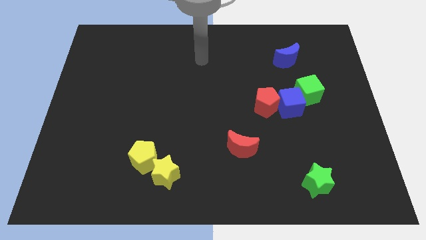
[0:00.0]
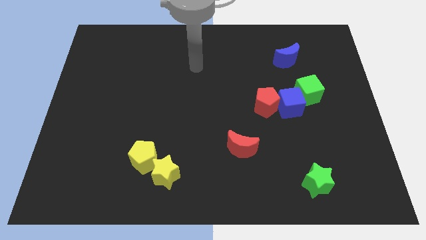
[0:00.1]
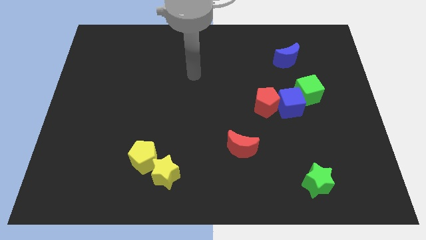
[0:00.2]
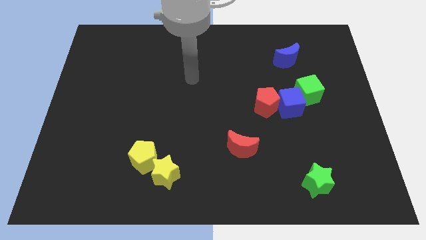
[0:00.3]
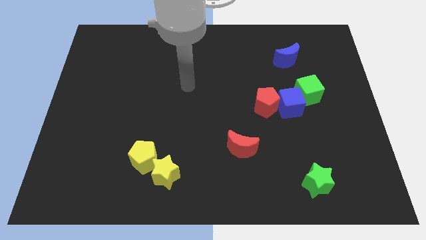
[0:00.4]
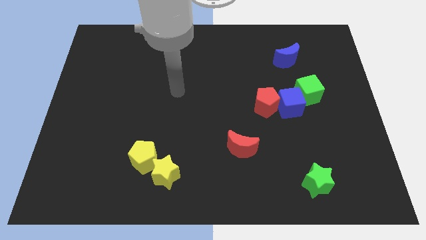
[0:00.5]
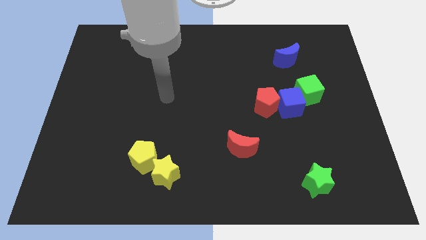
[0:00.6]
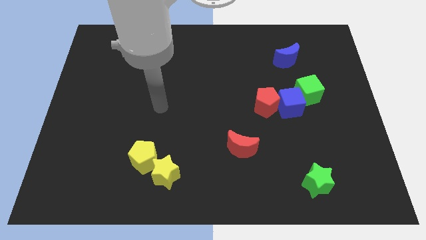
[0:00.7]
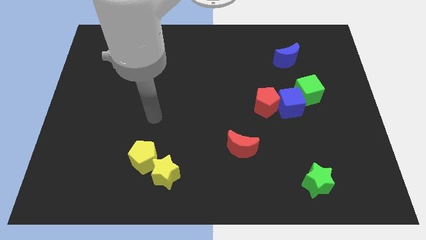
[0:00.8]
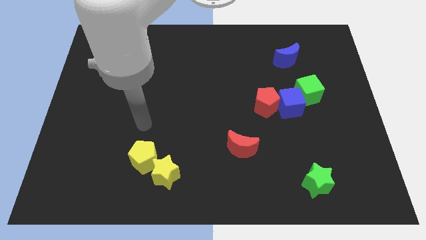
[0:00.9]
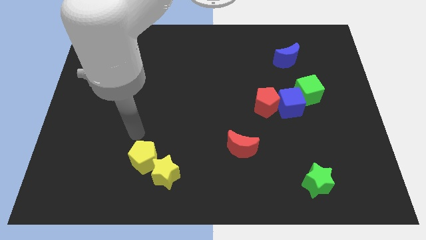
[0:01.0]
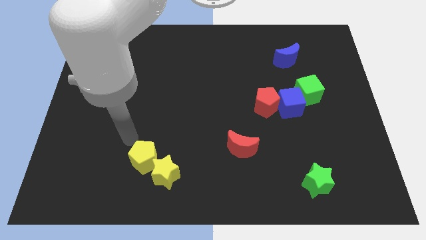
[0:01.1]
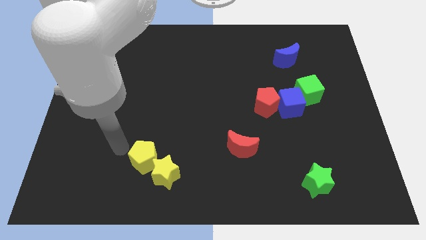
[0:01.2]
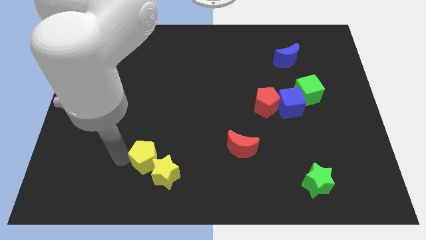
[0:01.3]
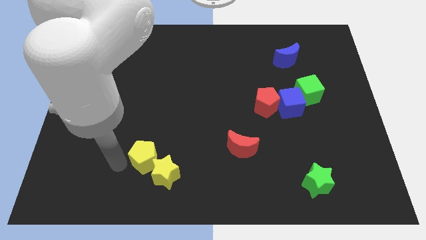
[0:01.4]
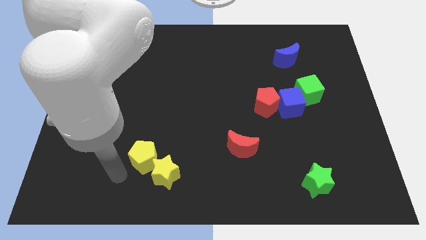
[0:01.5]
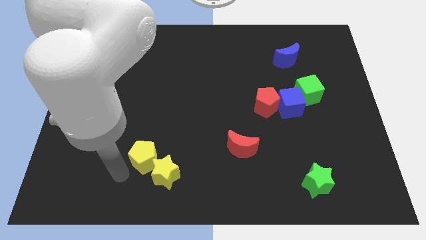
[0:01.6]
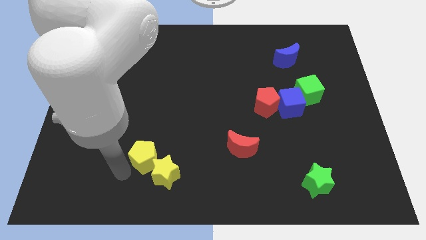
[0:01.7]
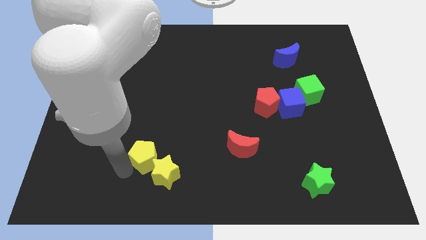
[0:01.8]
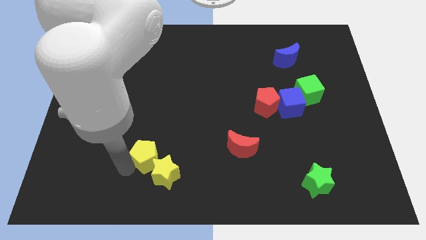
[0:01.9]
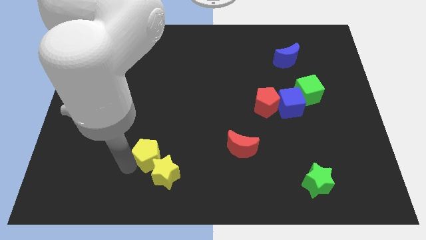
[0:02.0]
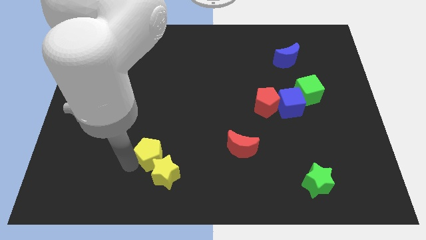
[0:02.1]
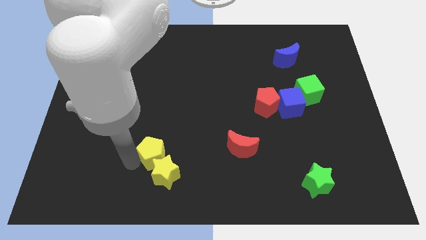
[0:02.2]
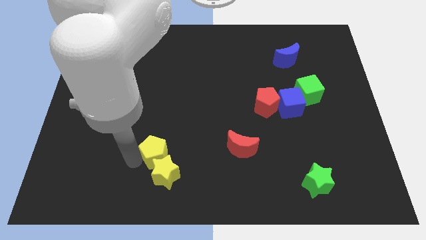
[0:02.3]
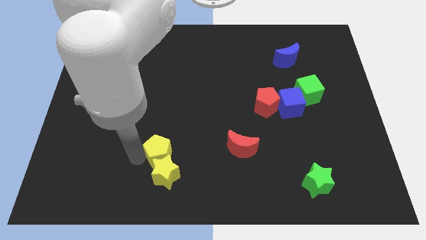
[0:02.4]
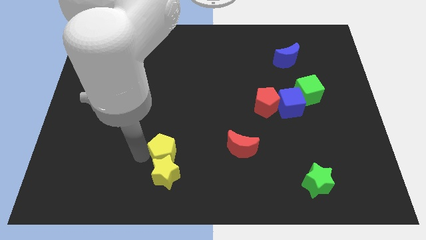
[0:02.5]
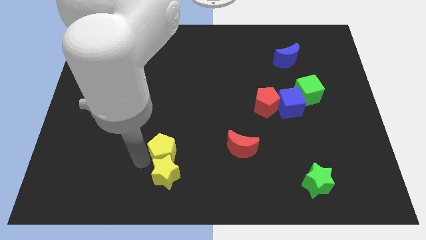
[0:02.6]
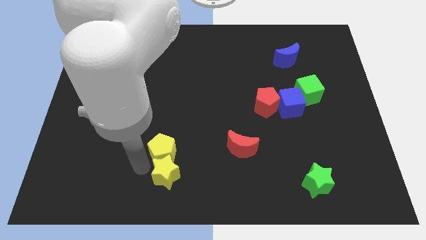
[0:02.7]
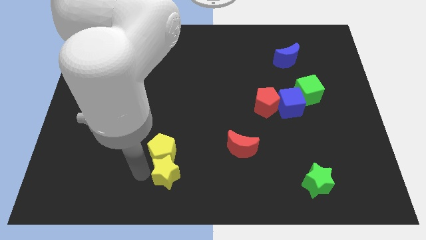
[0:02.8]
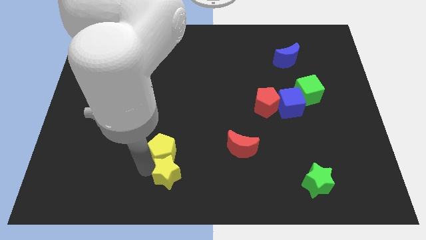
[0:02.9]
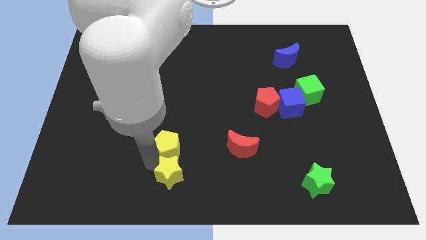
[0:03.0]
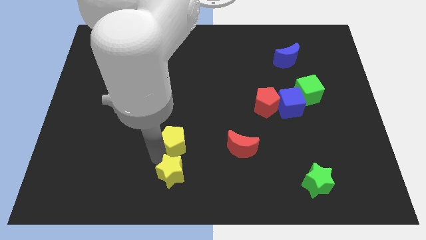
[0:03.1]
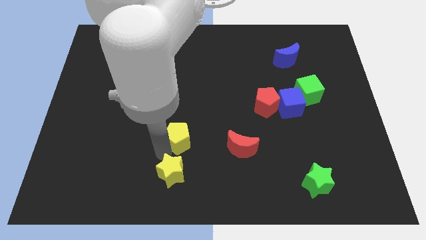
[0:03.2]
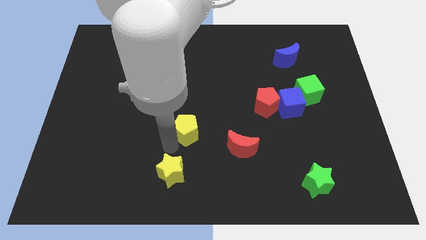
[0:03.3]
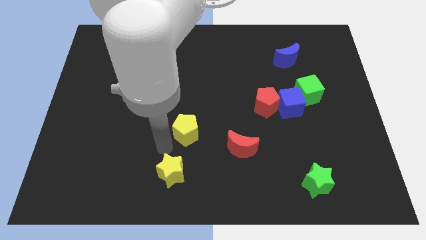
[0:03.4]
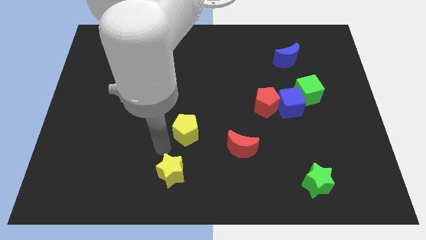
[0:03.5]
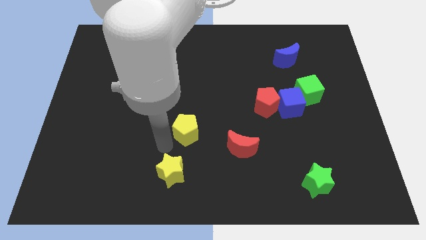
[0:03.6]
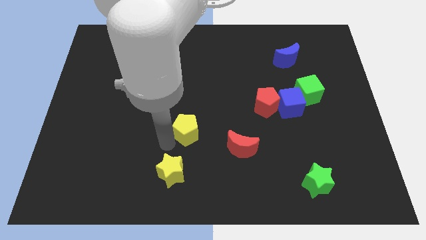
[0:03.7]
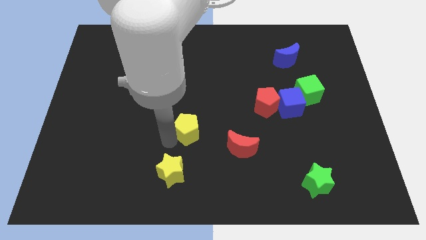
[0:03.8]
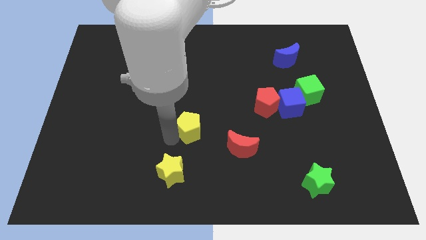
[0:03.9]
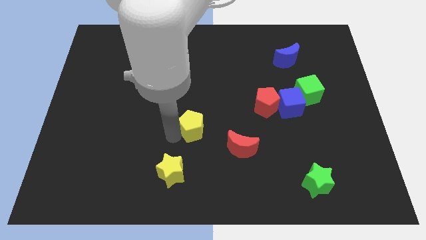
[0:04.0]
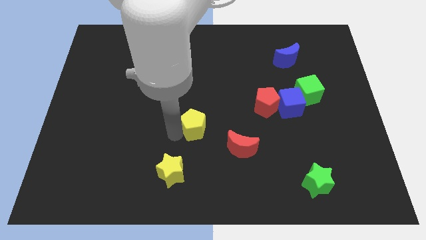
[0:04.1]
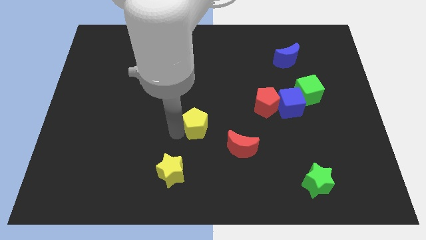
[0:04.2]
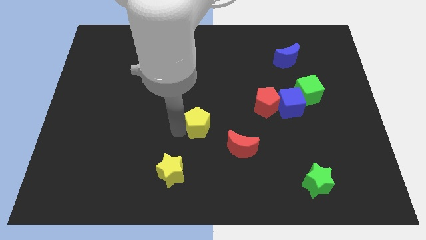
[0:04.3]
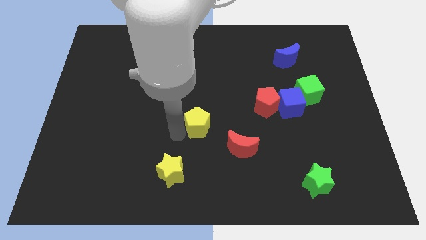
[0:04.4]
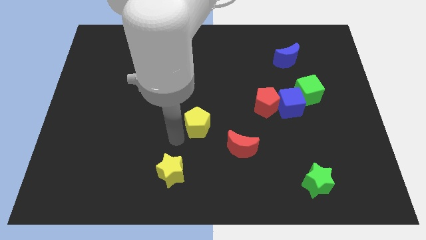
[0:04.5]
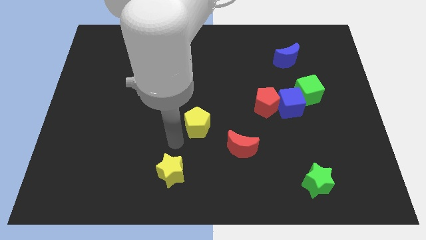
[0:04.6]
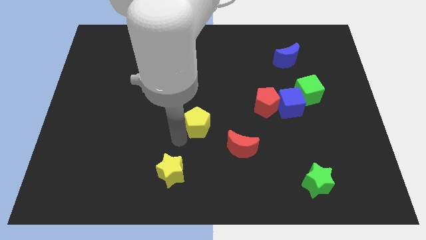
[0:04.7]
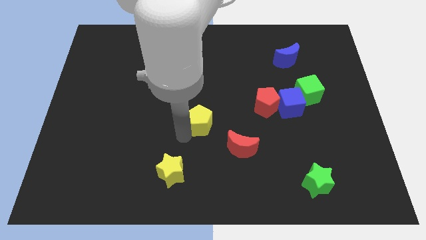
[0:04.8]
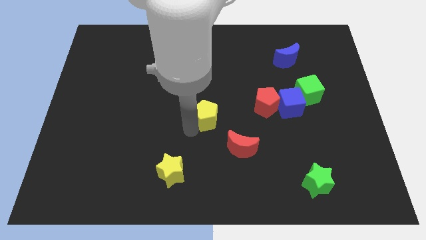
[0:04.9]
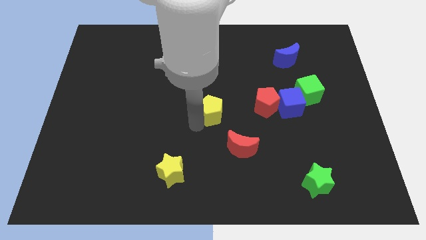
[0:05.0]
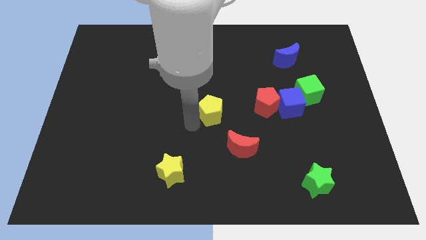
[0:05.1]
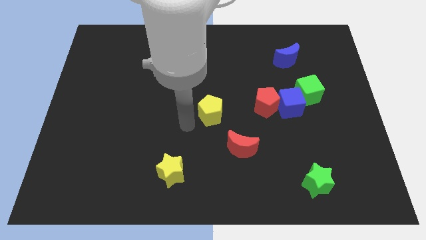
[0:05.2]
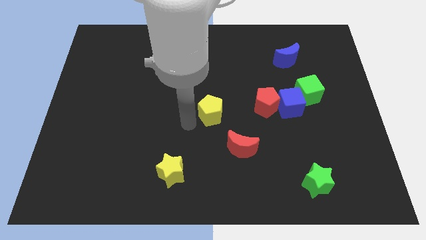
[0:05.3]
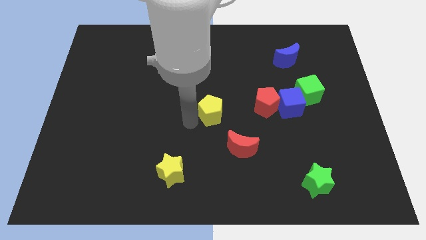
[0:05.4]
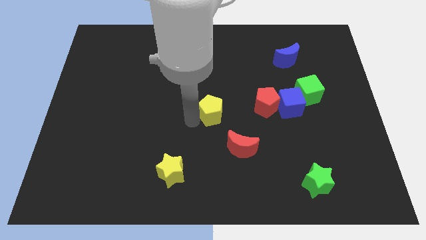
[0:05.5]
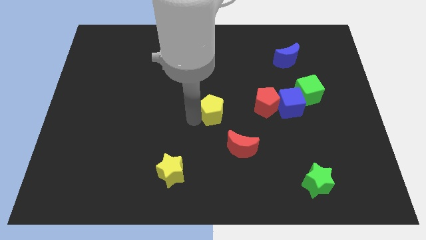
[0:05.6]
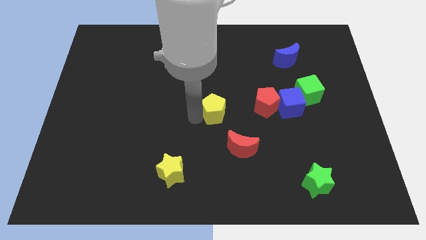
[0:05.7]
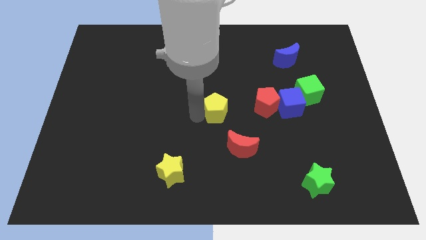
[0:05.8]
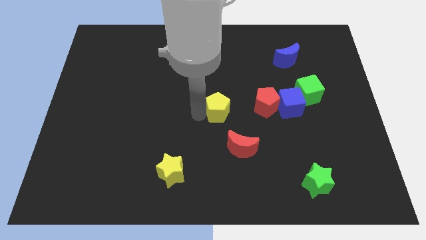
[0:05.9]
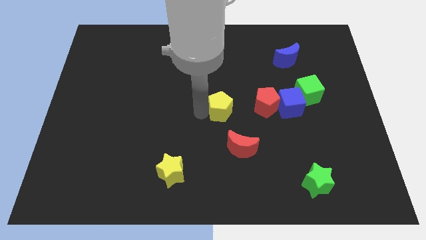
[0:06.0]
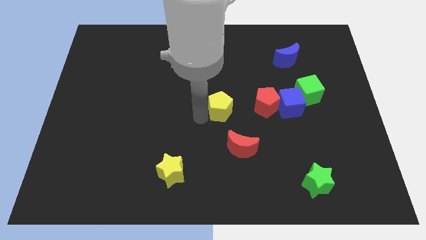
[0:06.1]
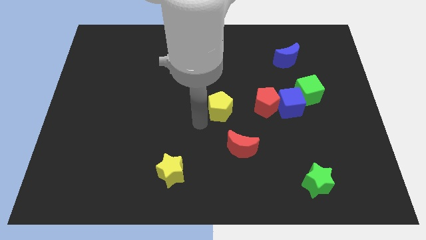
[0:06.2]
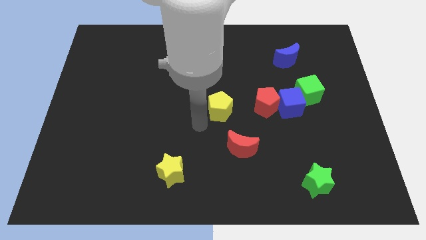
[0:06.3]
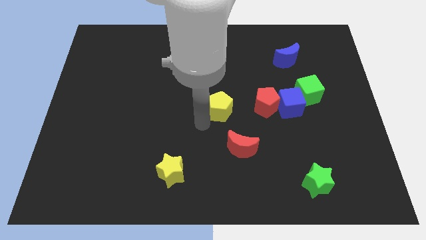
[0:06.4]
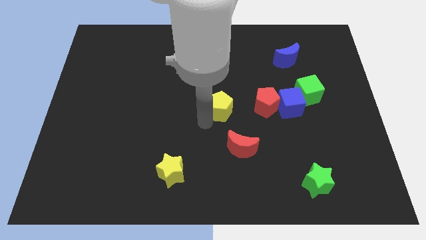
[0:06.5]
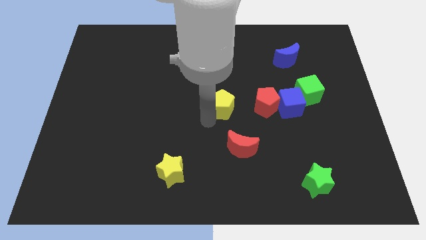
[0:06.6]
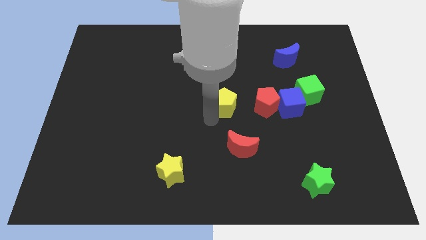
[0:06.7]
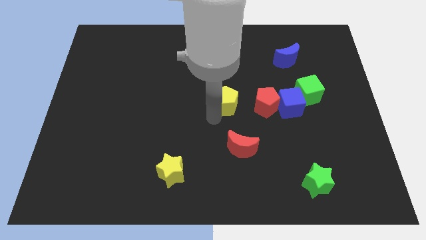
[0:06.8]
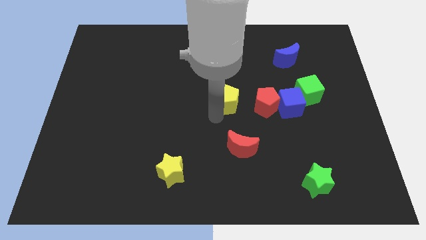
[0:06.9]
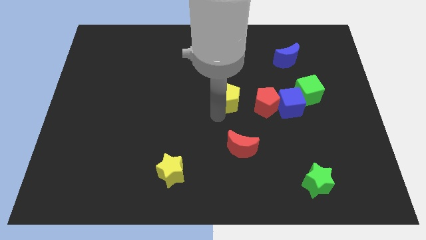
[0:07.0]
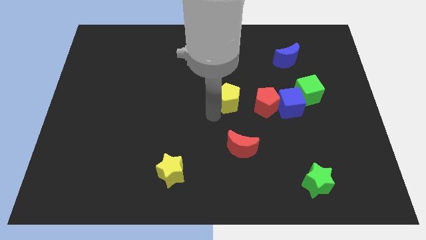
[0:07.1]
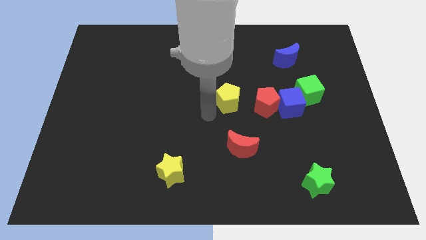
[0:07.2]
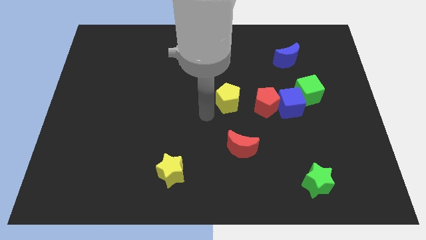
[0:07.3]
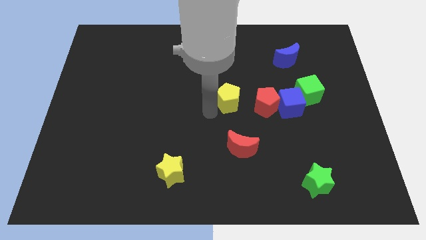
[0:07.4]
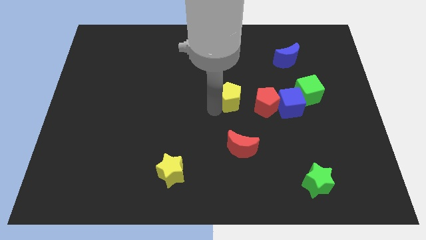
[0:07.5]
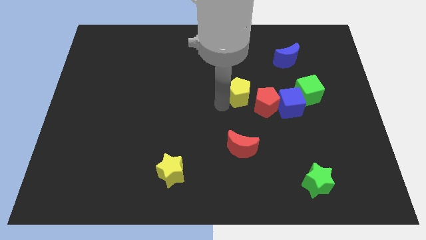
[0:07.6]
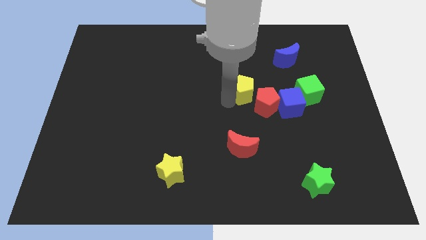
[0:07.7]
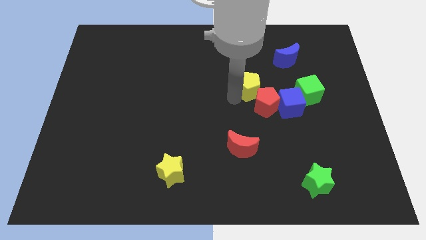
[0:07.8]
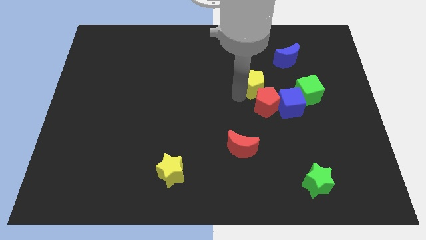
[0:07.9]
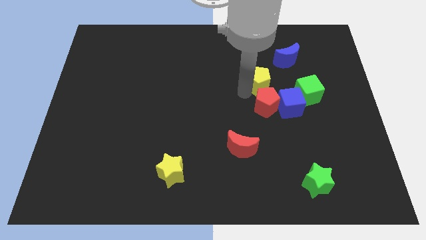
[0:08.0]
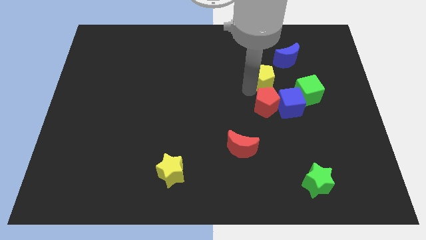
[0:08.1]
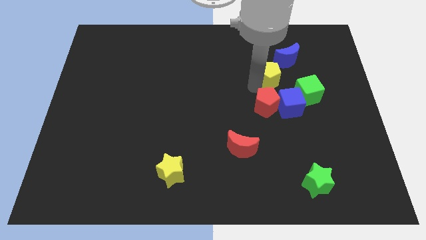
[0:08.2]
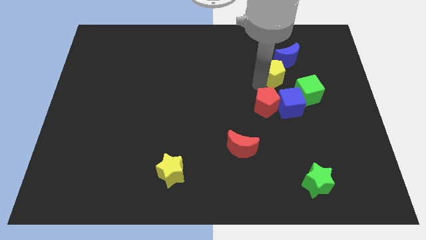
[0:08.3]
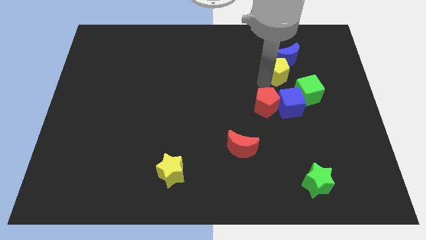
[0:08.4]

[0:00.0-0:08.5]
slide the yellow pentagon close to the blue moon
